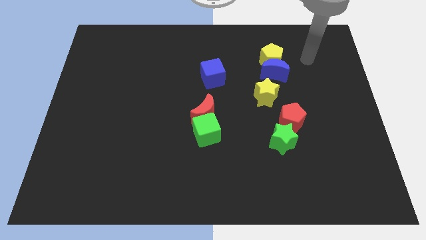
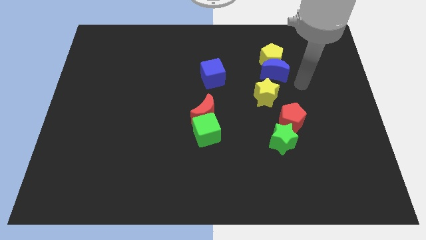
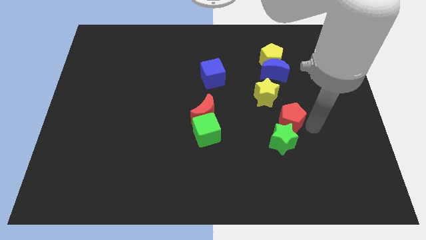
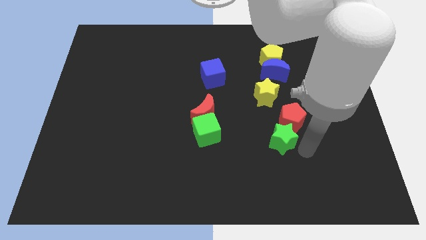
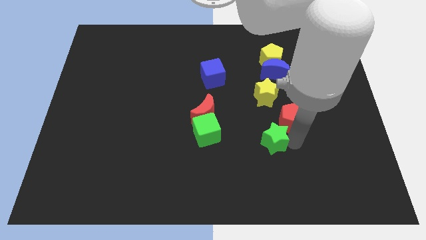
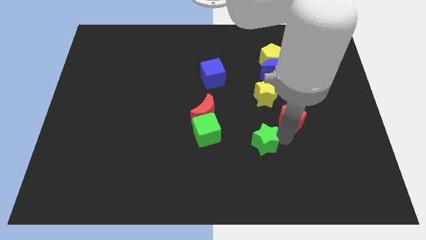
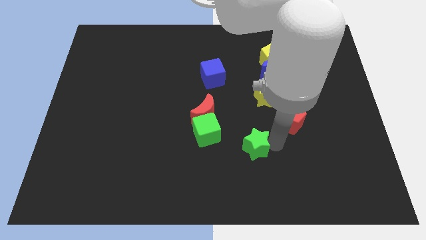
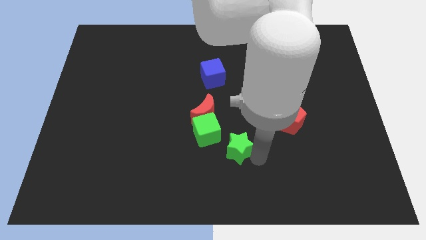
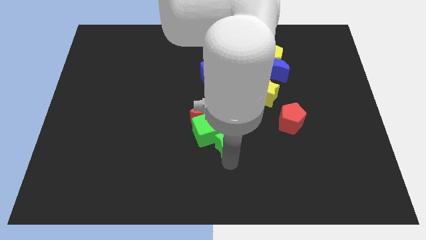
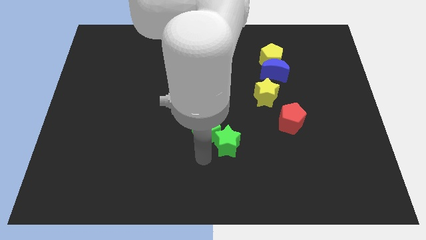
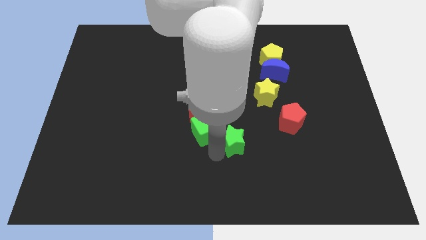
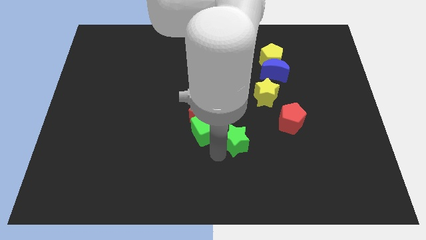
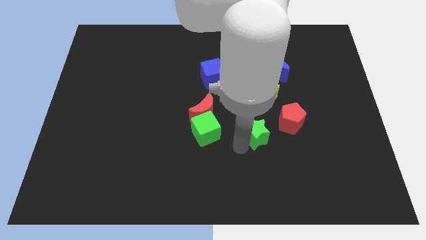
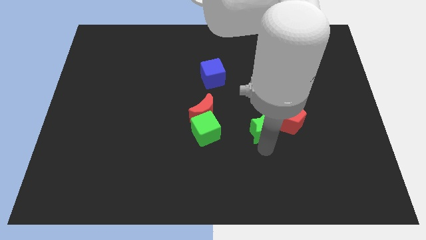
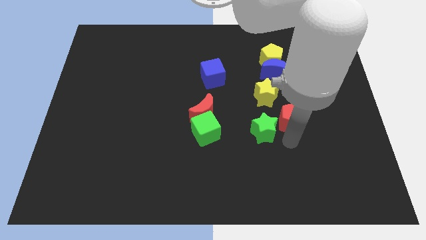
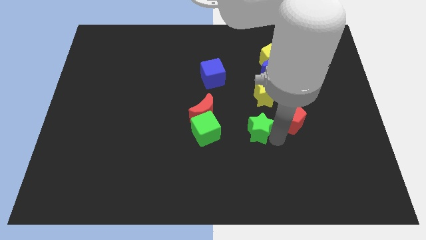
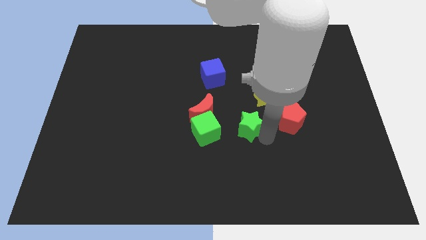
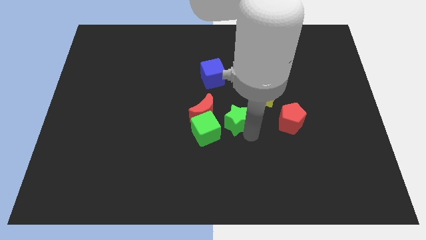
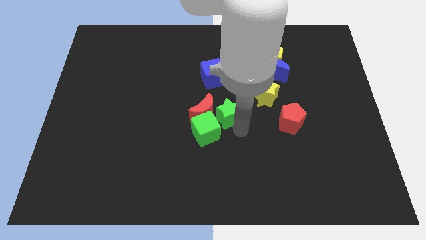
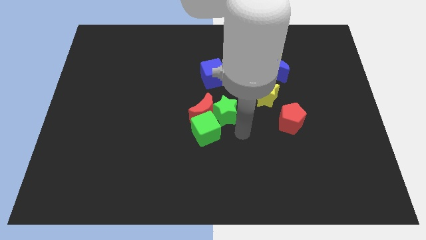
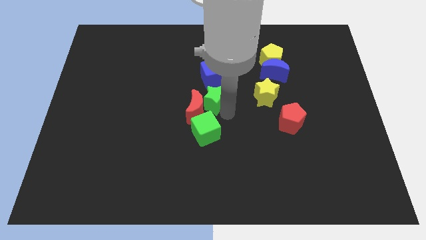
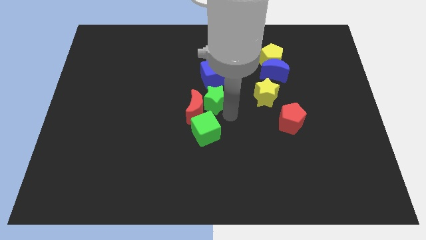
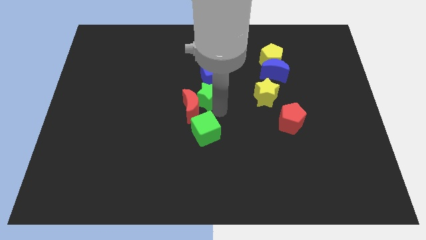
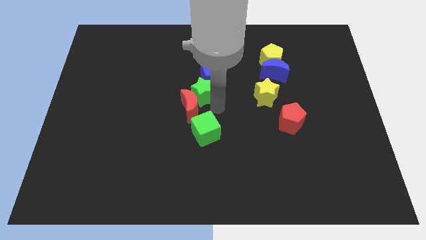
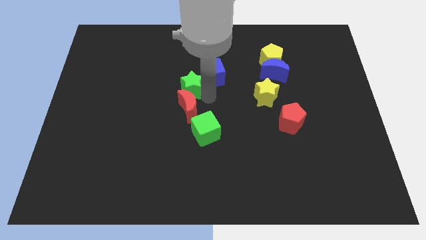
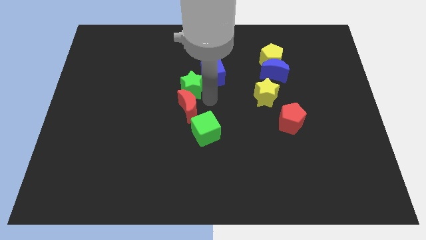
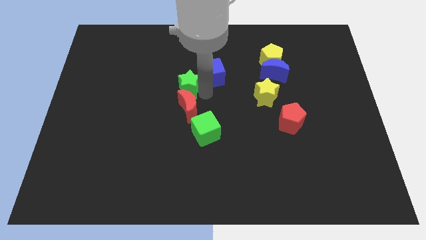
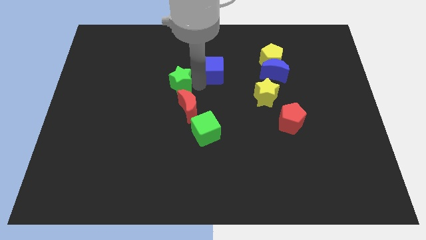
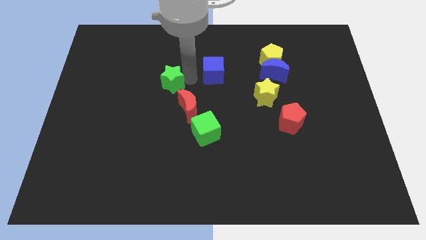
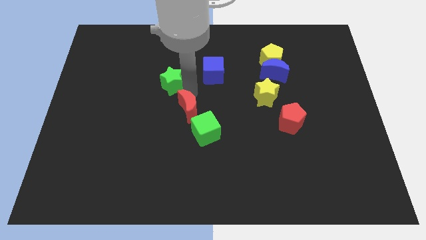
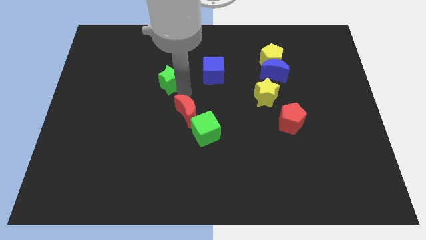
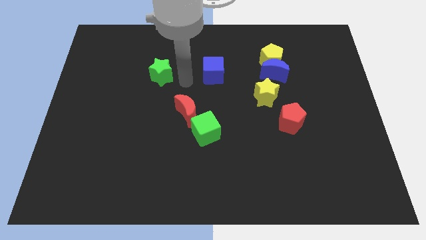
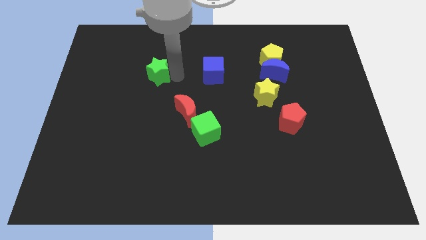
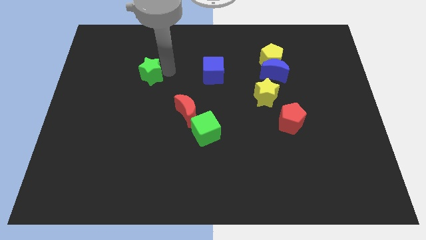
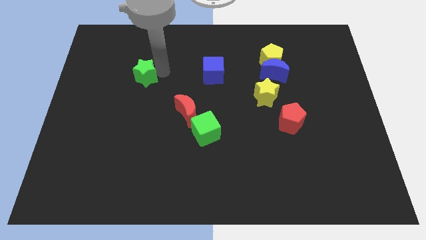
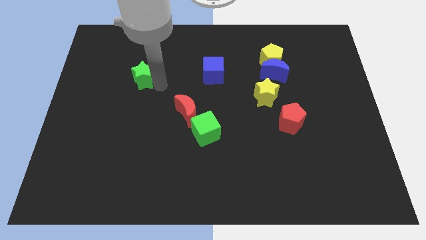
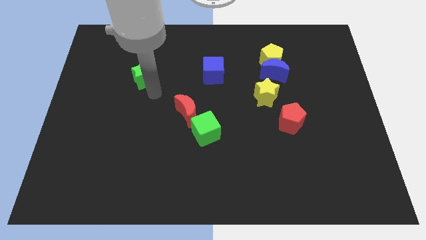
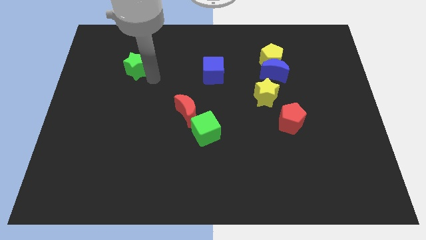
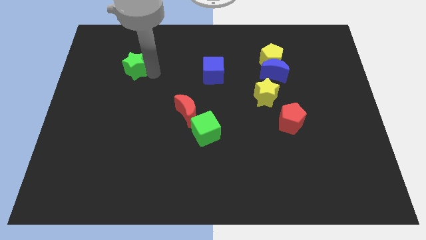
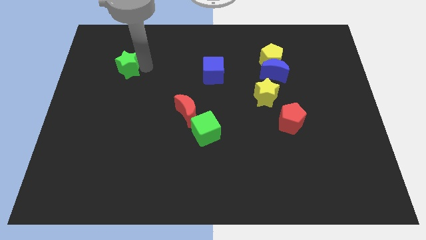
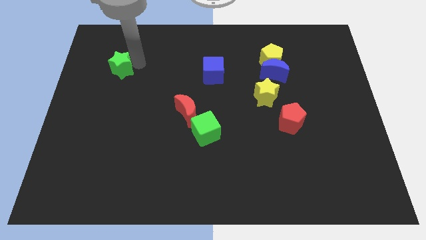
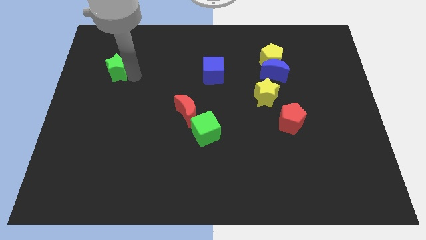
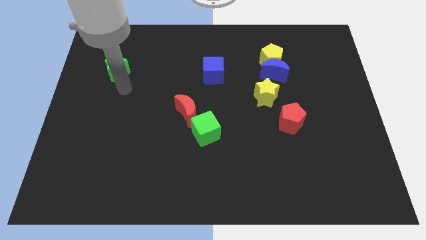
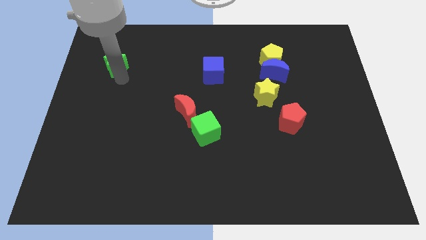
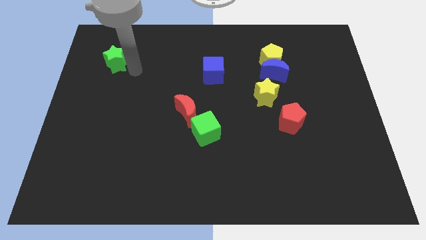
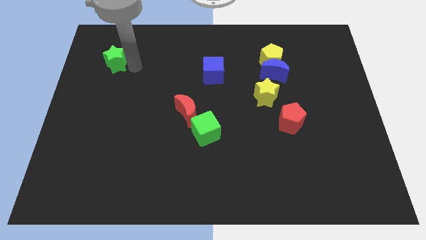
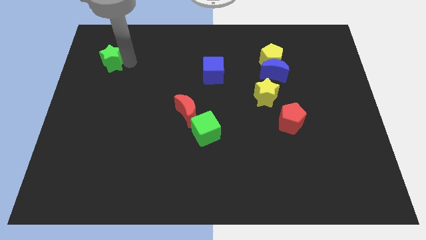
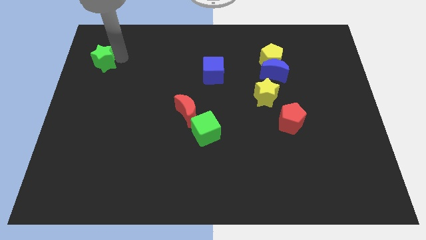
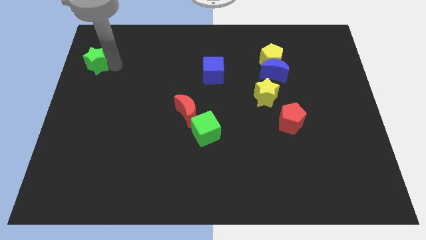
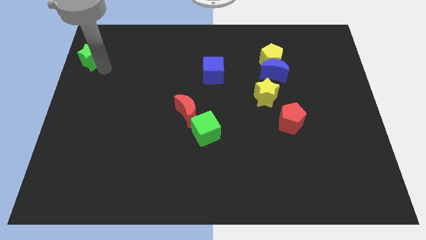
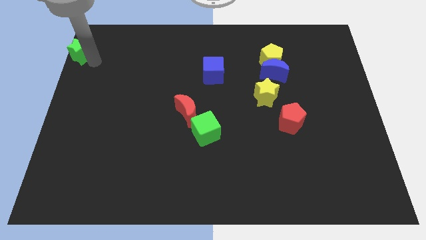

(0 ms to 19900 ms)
push the green star to the top left of the board

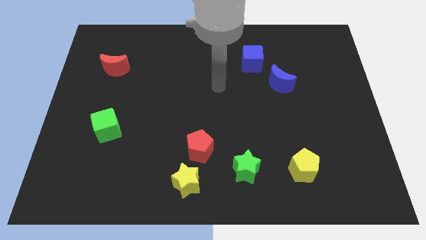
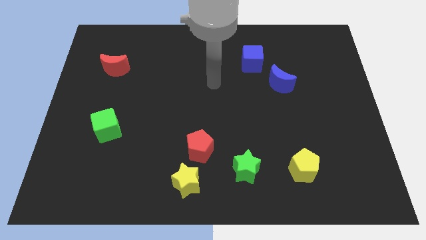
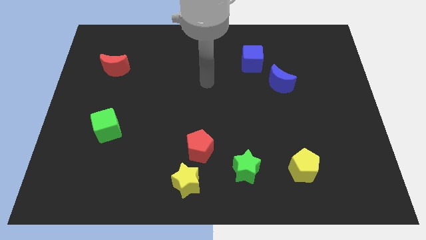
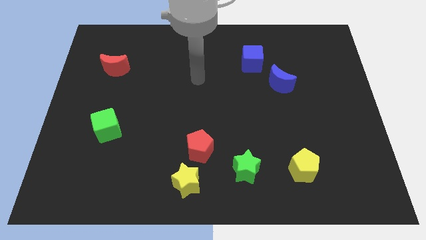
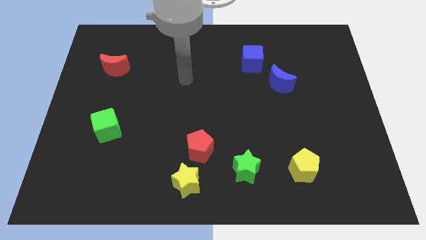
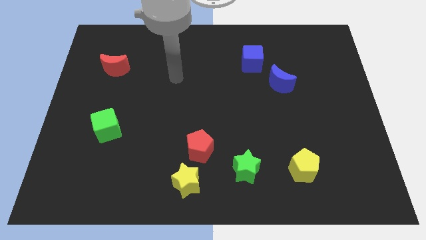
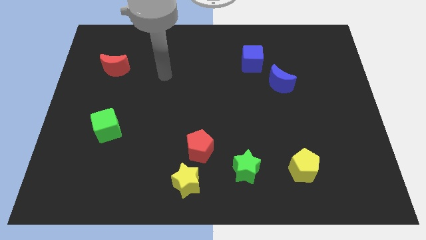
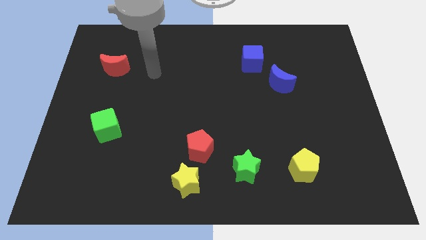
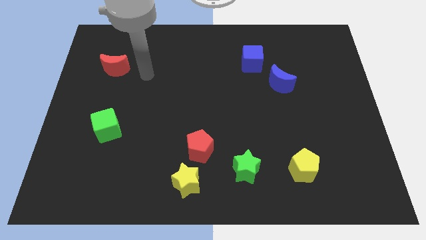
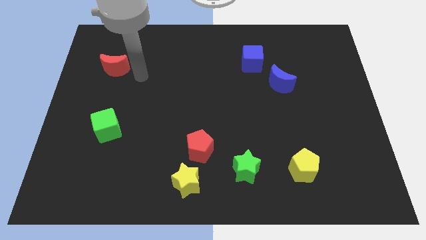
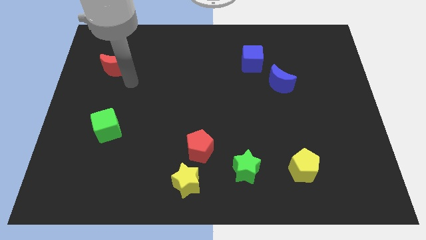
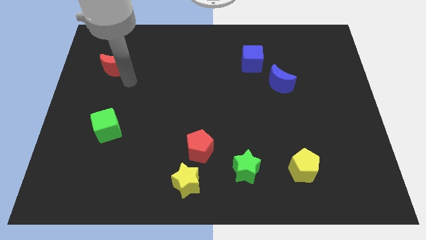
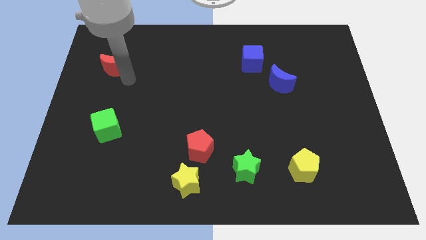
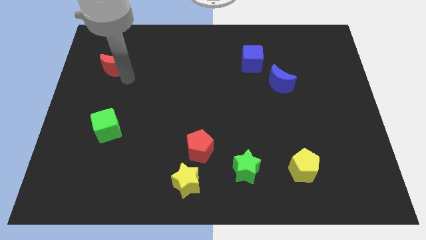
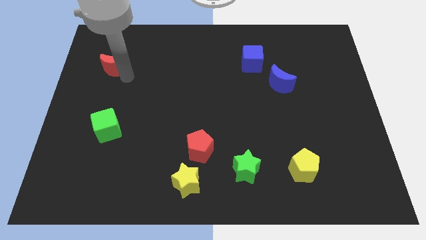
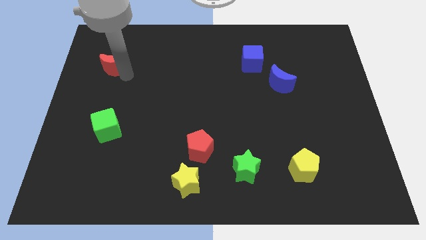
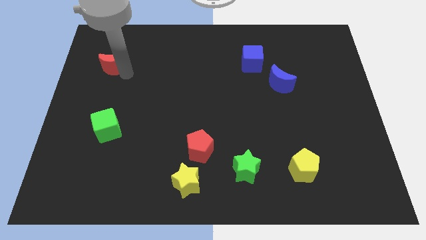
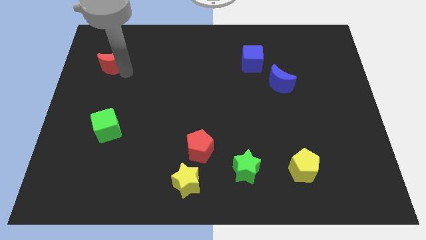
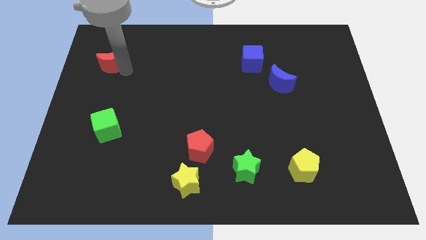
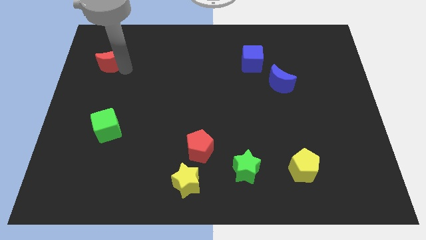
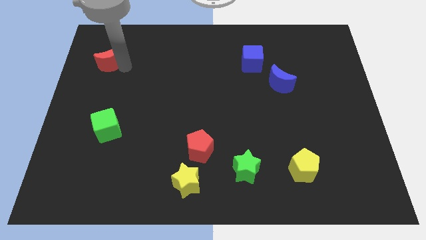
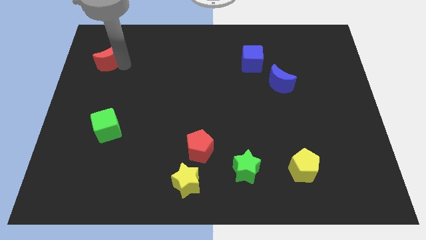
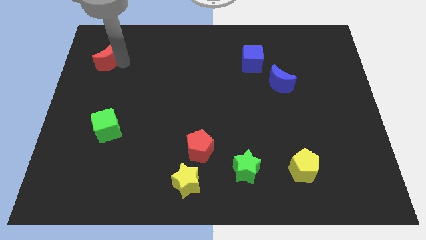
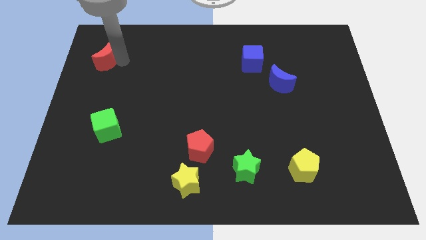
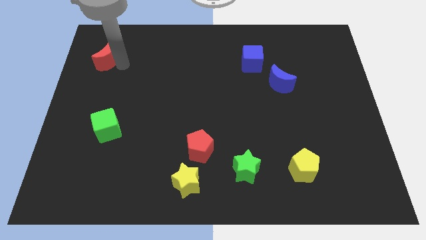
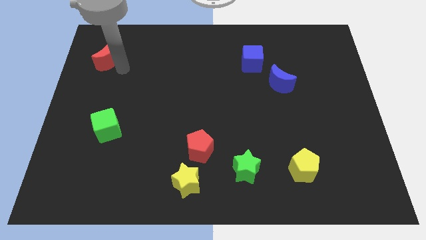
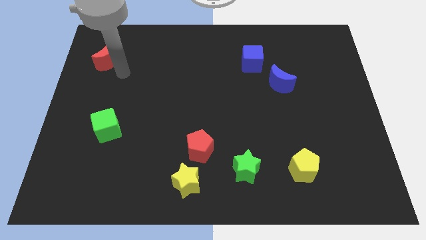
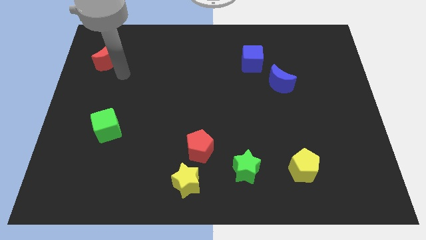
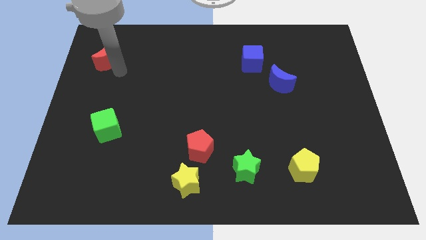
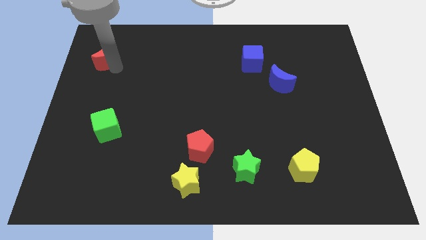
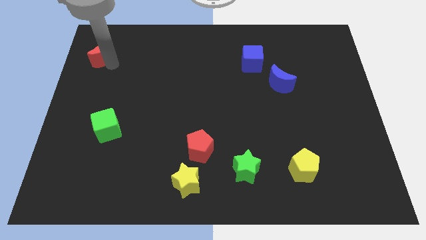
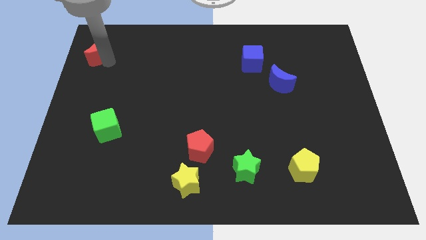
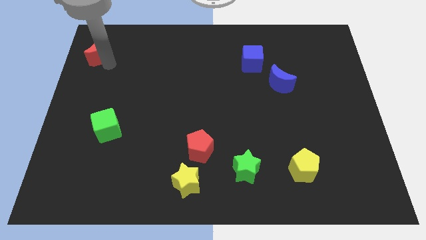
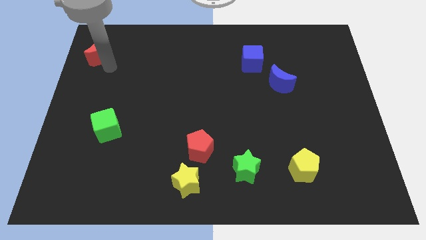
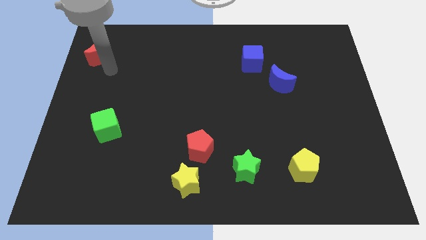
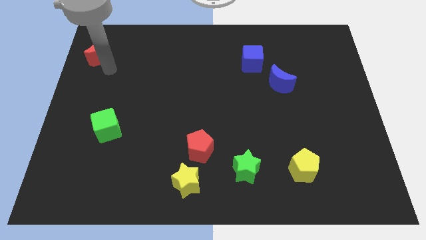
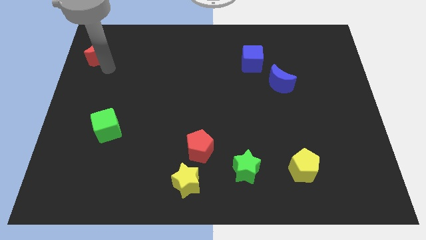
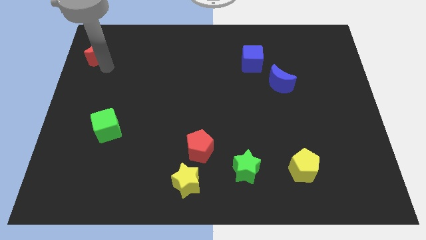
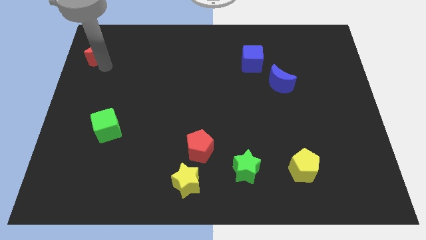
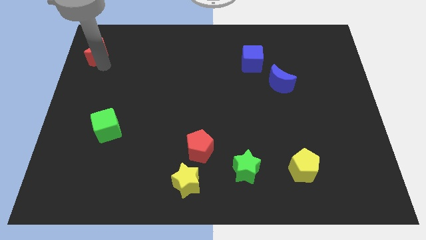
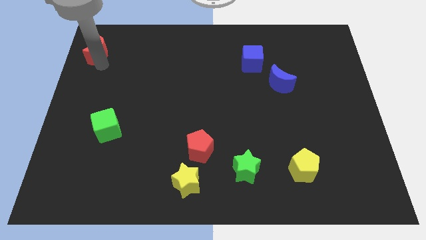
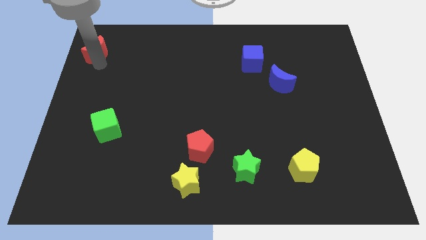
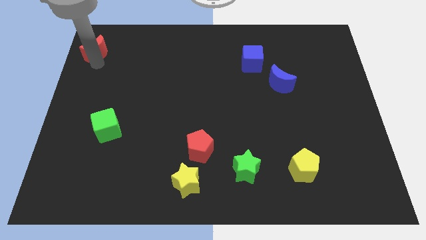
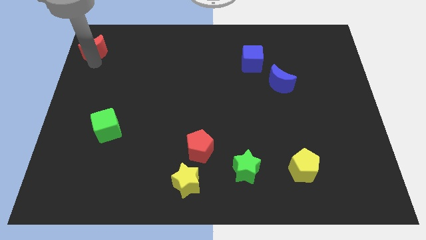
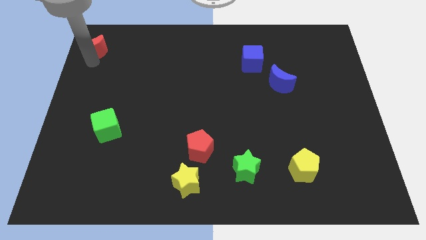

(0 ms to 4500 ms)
put the red moon to the upper left corner
